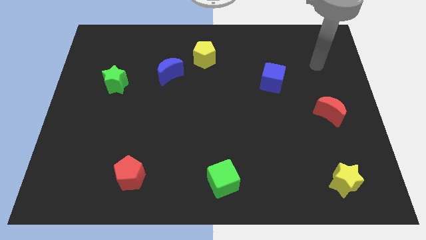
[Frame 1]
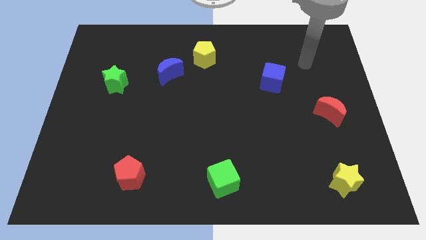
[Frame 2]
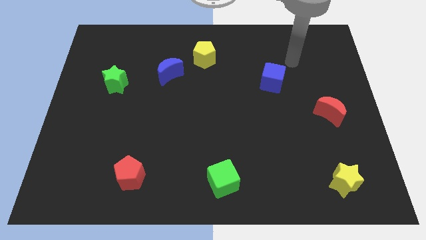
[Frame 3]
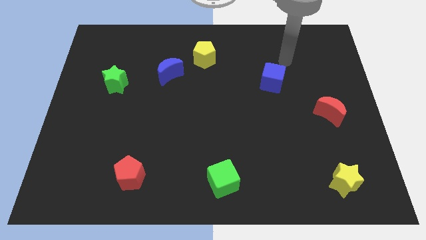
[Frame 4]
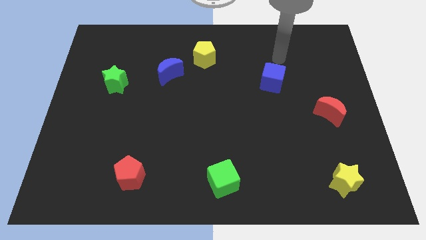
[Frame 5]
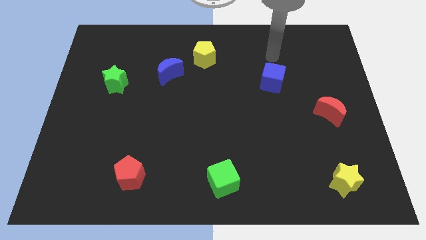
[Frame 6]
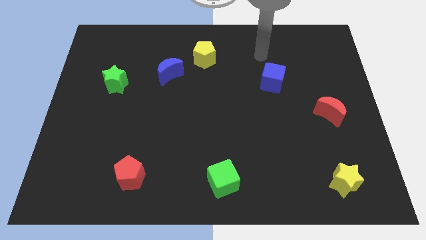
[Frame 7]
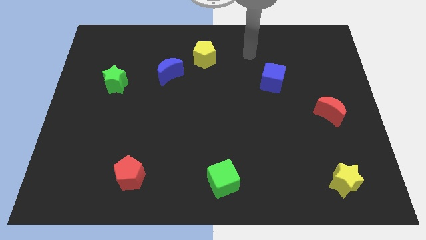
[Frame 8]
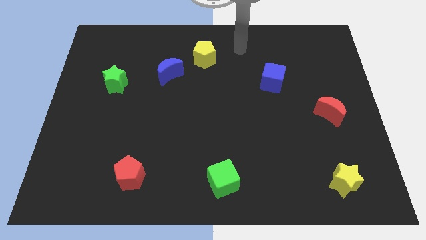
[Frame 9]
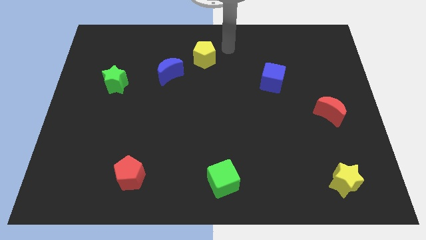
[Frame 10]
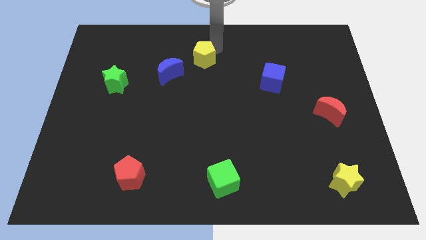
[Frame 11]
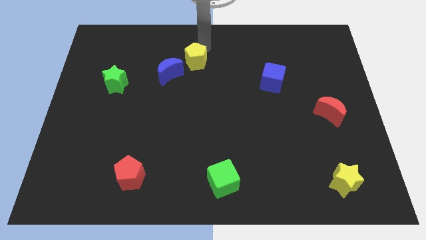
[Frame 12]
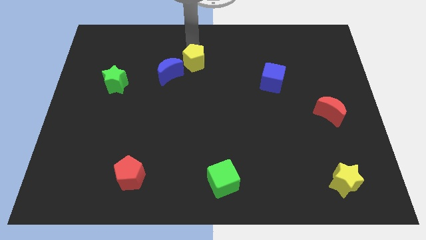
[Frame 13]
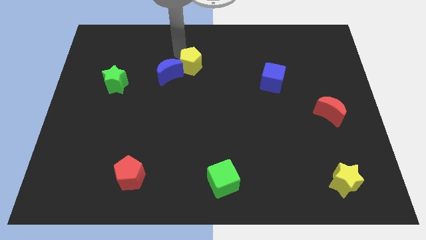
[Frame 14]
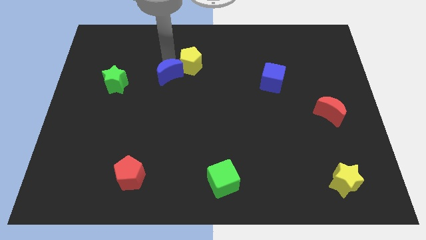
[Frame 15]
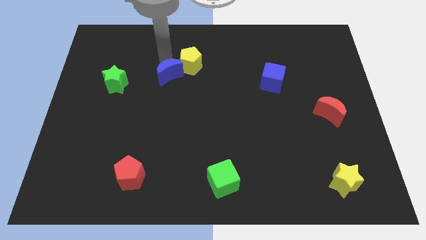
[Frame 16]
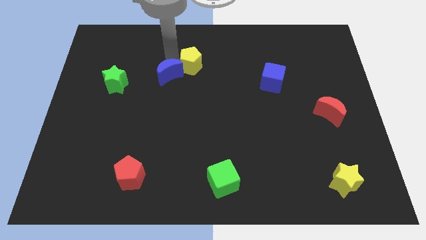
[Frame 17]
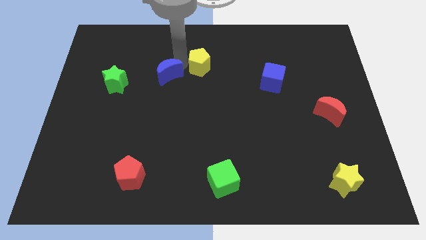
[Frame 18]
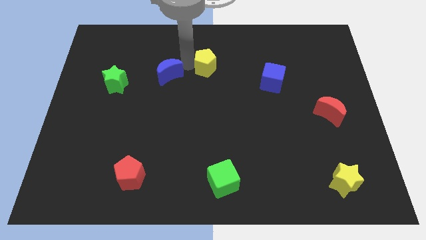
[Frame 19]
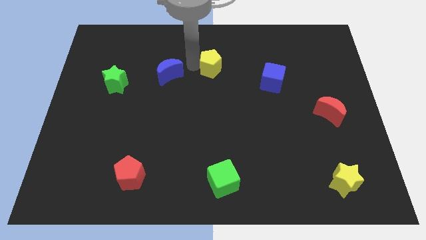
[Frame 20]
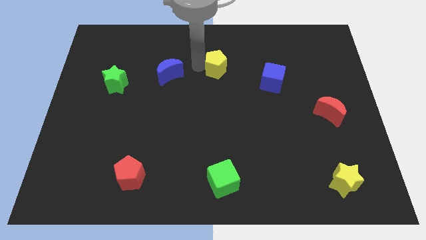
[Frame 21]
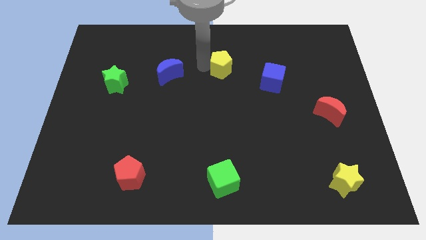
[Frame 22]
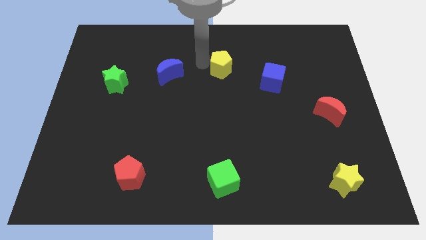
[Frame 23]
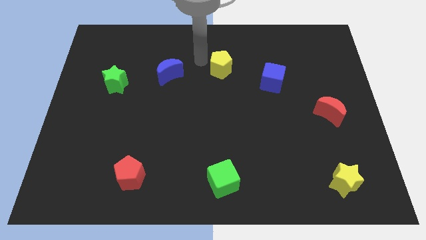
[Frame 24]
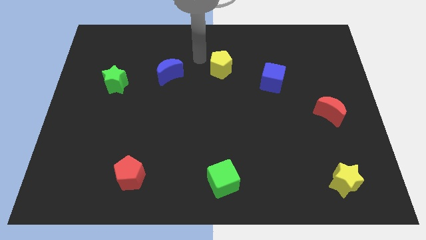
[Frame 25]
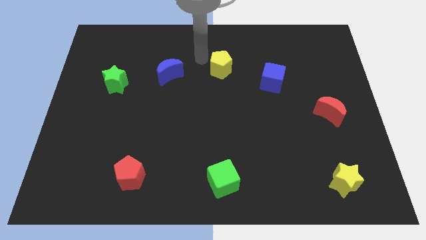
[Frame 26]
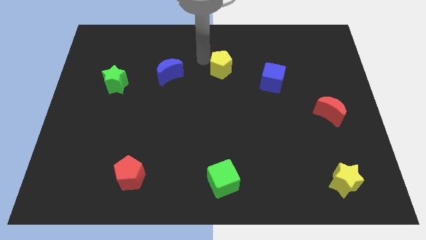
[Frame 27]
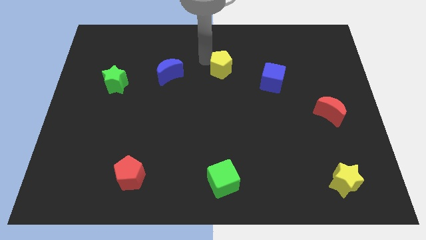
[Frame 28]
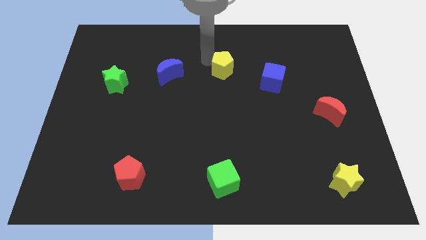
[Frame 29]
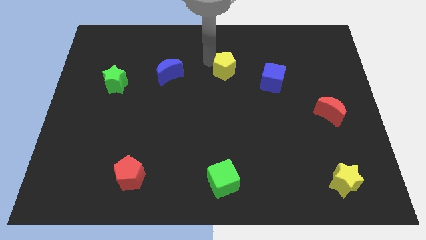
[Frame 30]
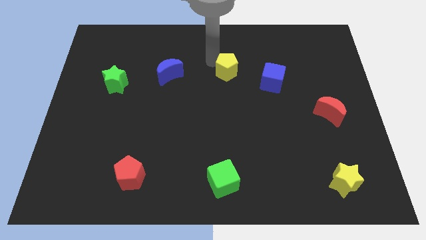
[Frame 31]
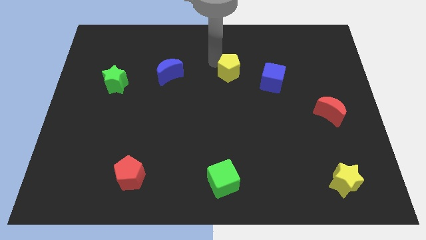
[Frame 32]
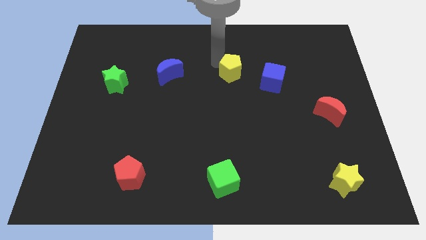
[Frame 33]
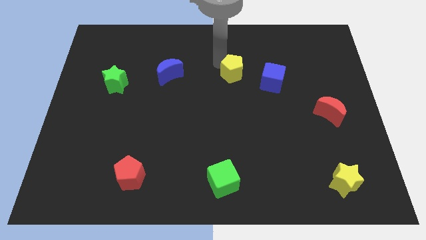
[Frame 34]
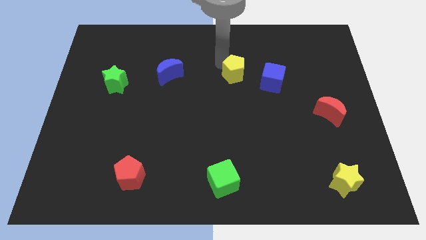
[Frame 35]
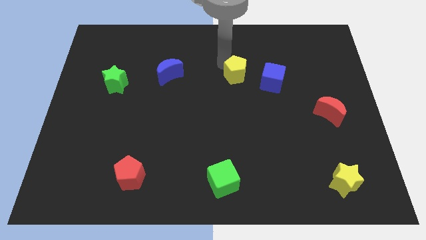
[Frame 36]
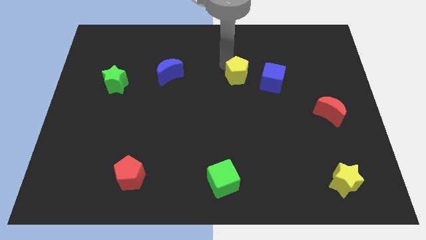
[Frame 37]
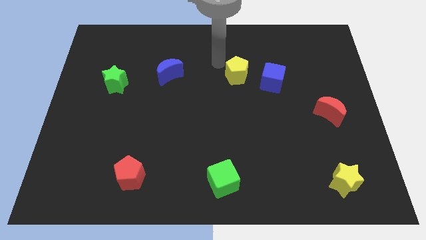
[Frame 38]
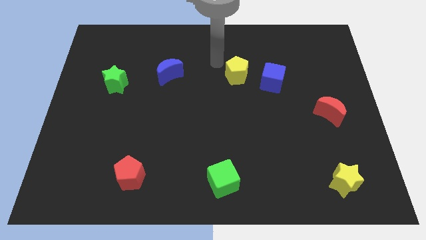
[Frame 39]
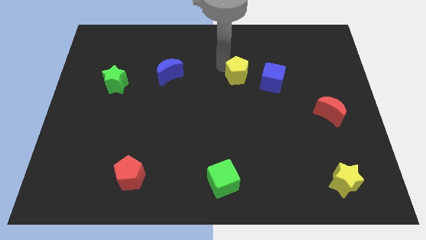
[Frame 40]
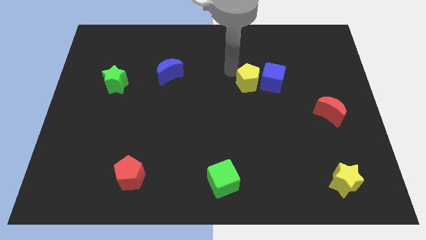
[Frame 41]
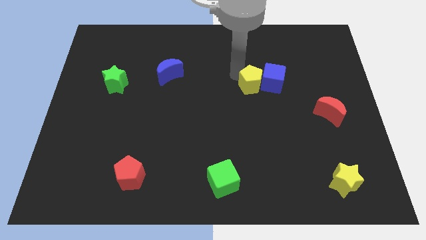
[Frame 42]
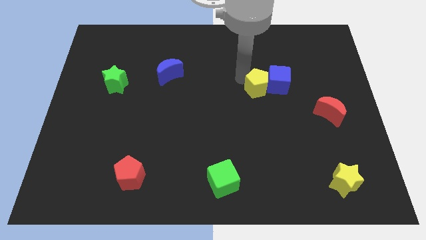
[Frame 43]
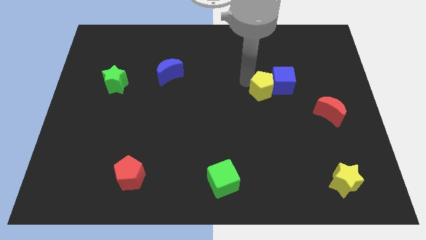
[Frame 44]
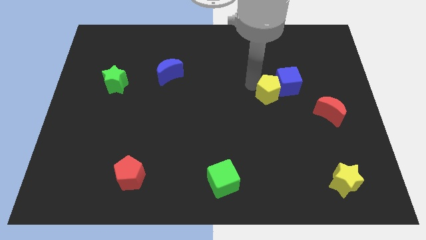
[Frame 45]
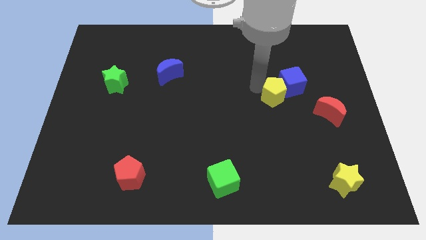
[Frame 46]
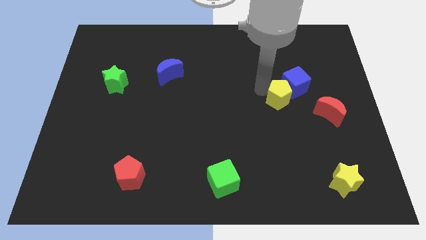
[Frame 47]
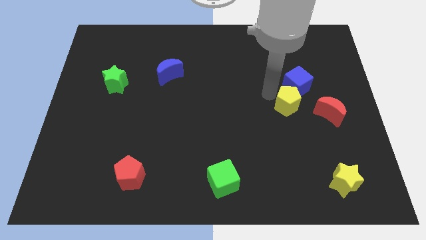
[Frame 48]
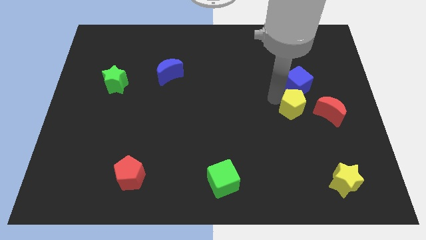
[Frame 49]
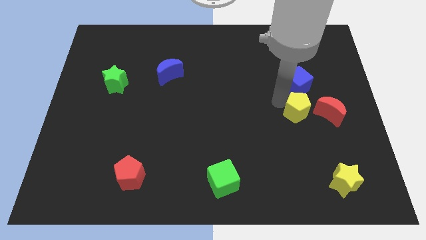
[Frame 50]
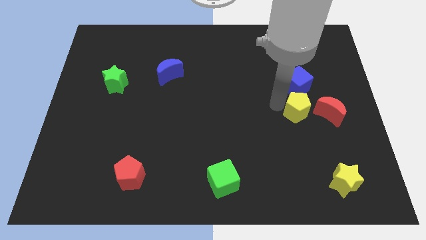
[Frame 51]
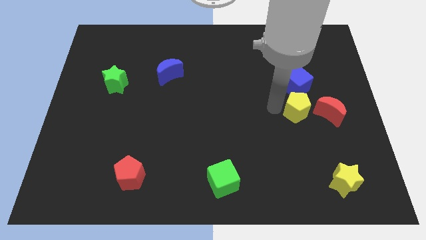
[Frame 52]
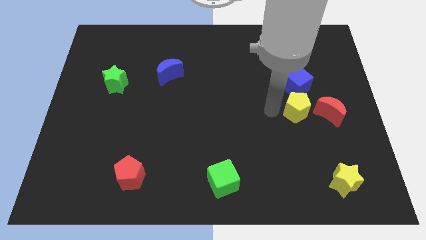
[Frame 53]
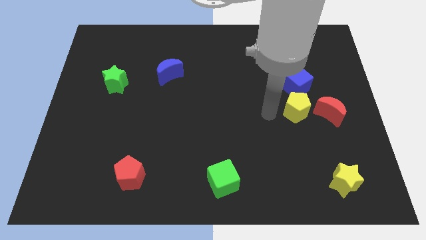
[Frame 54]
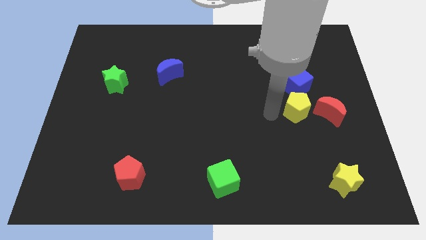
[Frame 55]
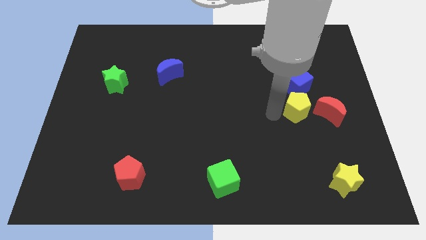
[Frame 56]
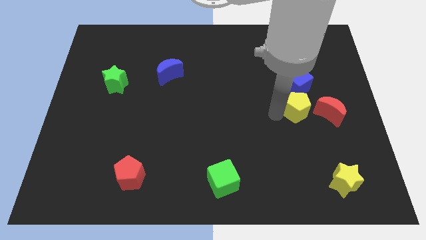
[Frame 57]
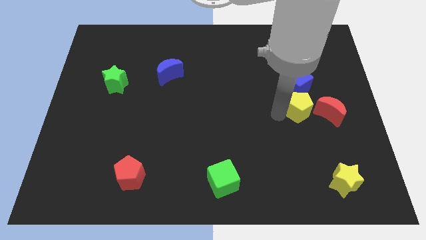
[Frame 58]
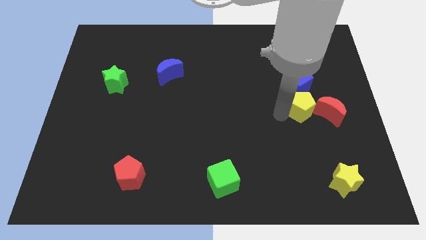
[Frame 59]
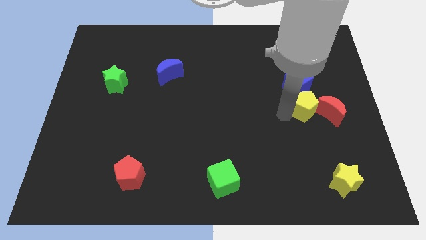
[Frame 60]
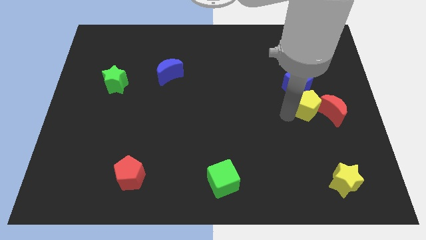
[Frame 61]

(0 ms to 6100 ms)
slide the yellow pentagon close to the red moon

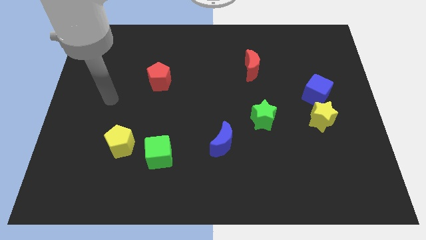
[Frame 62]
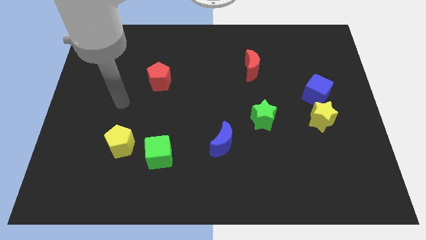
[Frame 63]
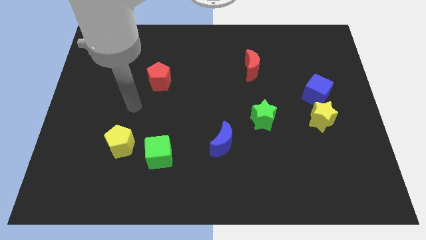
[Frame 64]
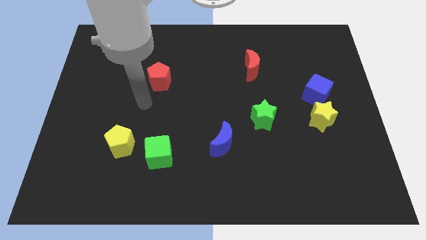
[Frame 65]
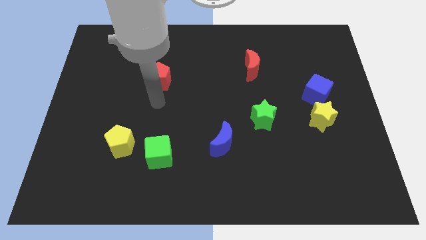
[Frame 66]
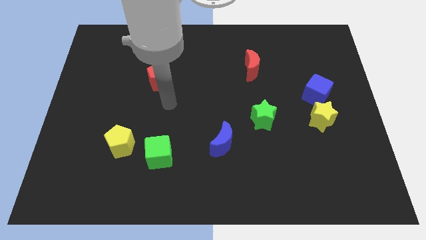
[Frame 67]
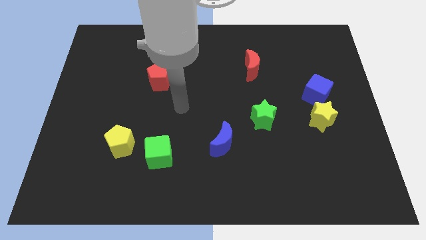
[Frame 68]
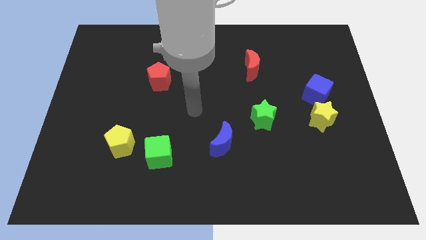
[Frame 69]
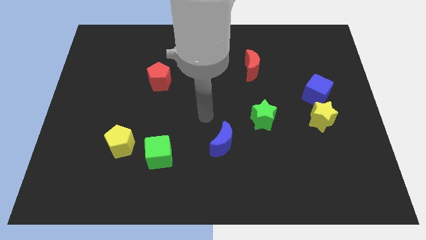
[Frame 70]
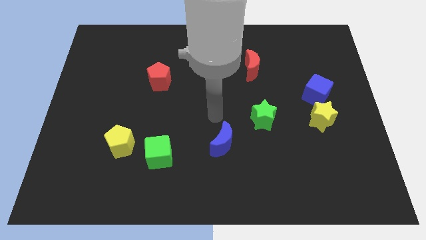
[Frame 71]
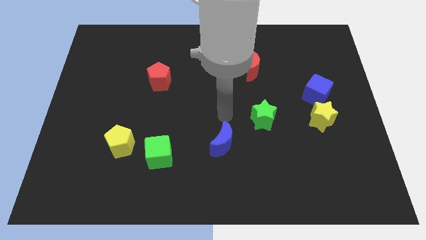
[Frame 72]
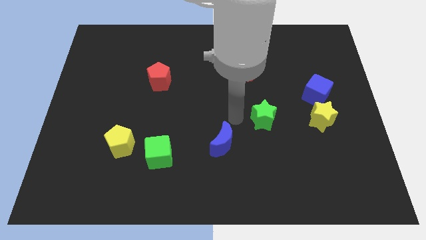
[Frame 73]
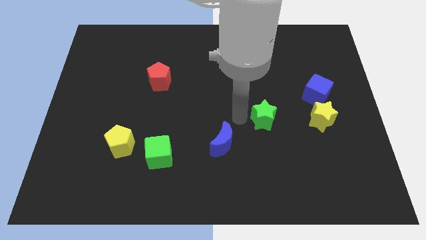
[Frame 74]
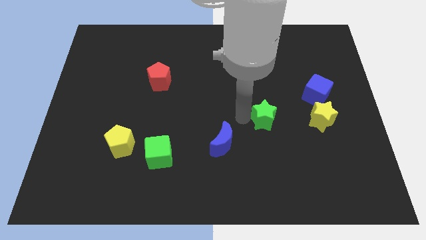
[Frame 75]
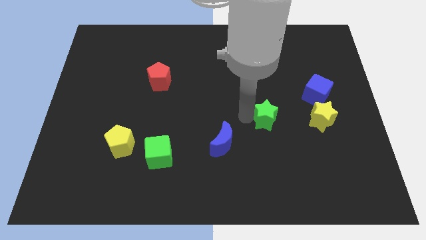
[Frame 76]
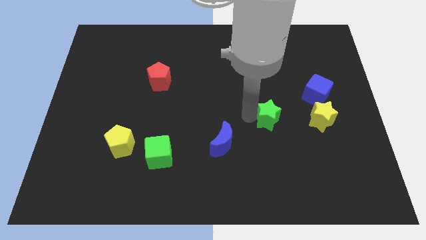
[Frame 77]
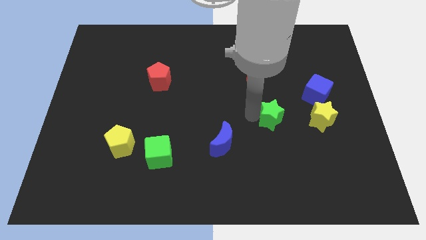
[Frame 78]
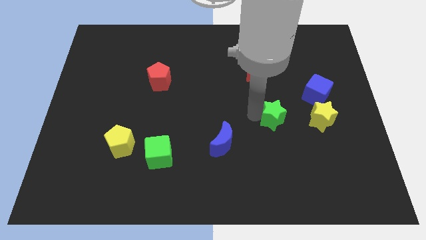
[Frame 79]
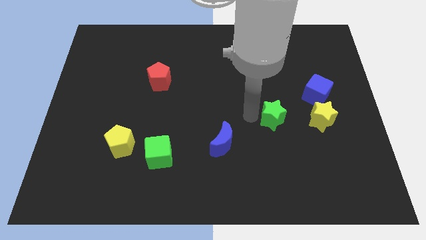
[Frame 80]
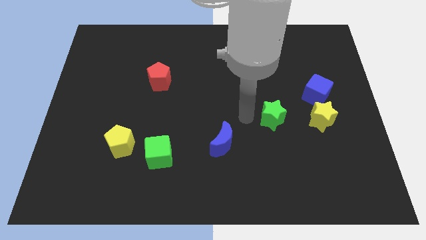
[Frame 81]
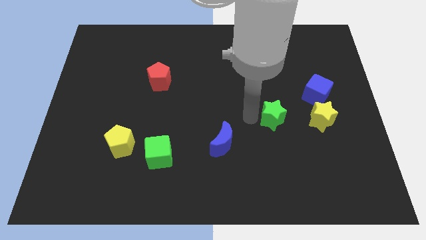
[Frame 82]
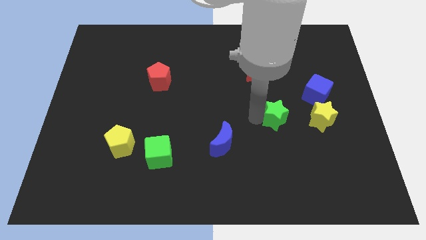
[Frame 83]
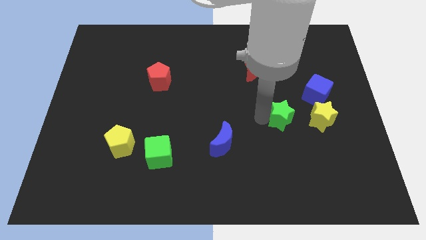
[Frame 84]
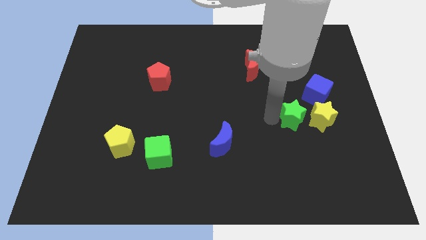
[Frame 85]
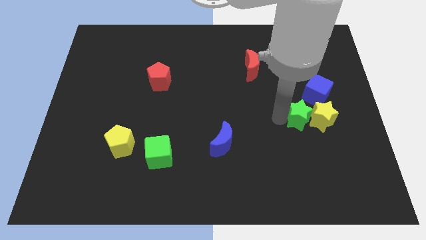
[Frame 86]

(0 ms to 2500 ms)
push the green star to the yellow star
